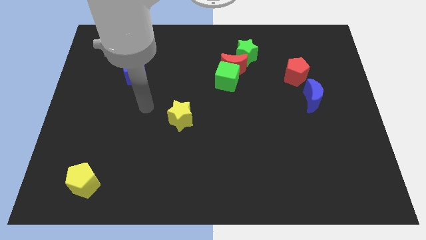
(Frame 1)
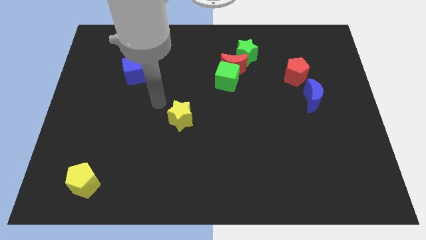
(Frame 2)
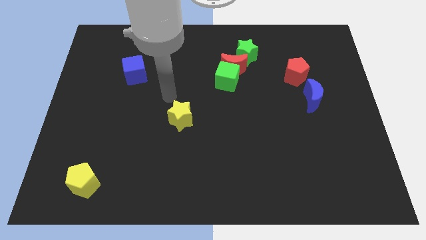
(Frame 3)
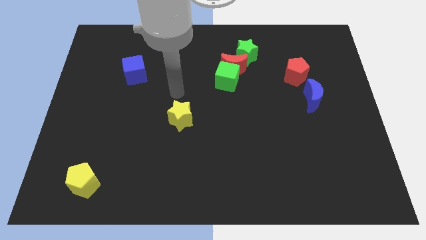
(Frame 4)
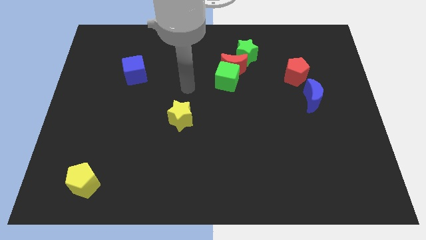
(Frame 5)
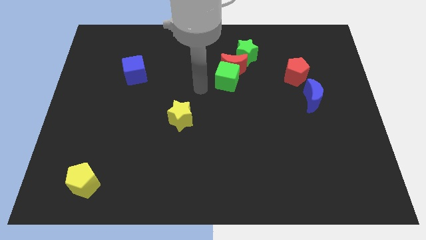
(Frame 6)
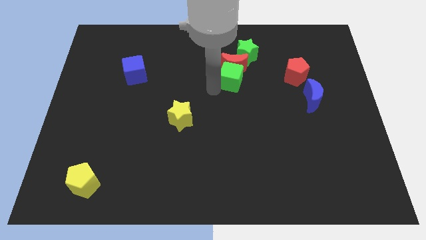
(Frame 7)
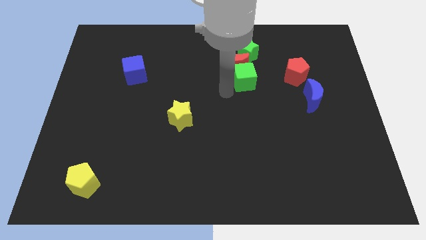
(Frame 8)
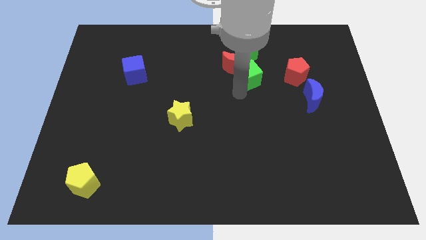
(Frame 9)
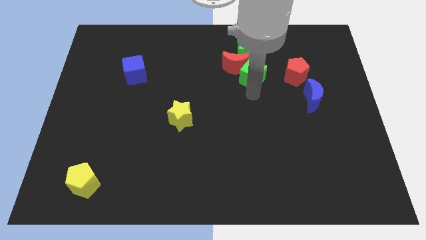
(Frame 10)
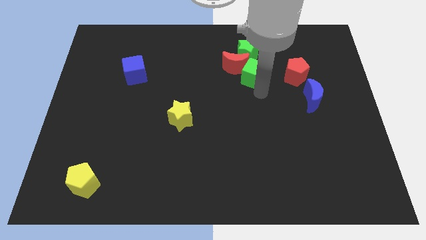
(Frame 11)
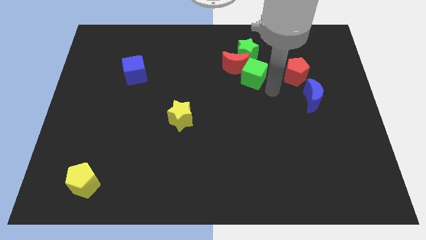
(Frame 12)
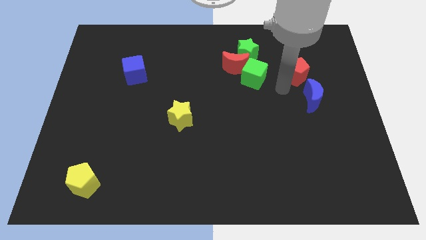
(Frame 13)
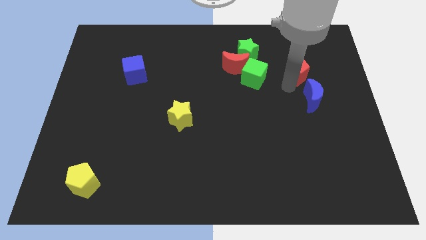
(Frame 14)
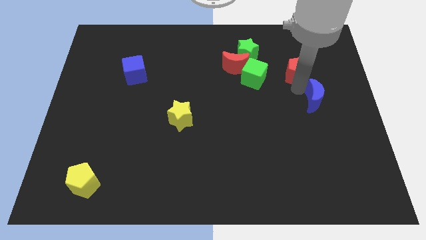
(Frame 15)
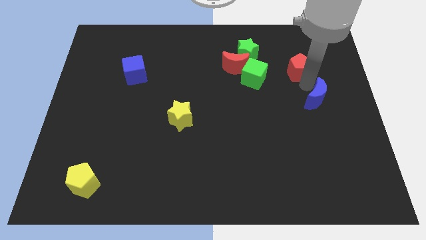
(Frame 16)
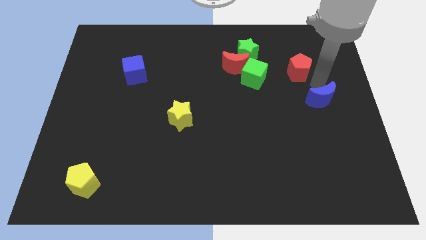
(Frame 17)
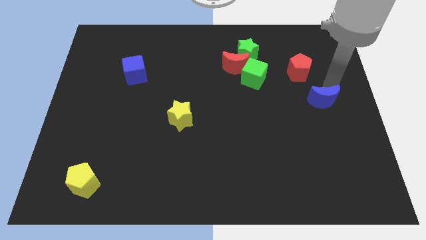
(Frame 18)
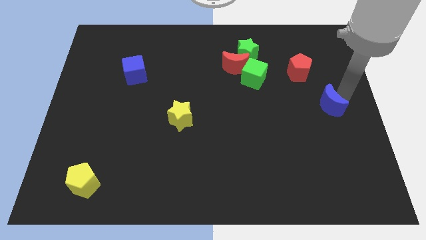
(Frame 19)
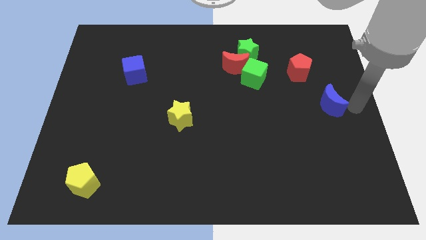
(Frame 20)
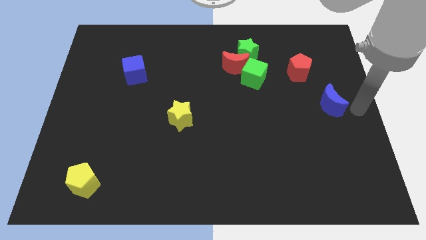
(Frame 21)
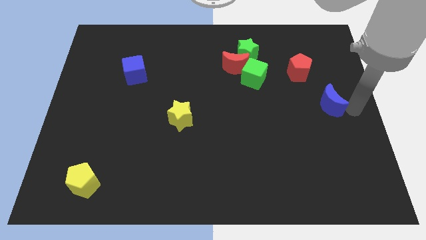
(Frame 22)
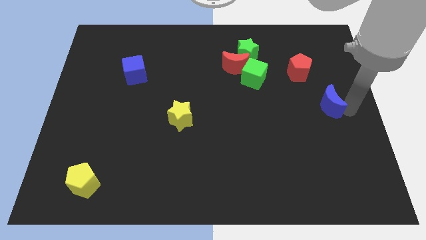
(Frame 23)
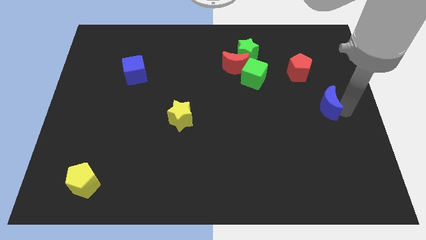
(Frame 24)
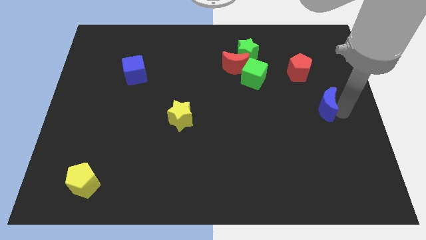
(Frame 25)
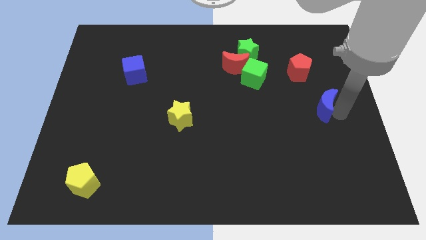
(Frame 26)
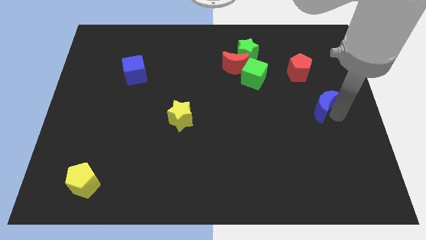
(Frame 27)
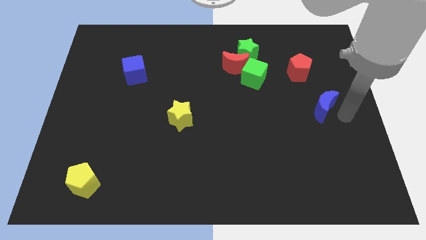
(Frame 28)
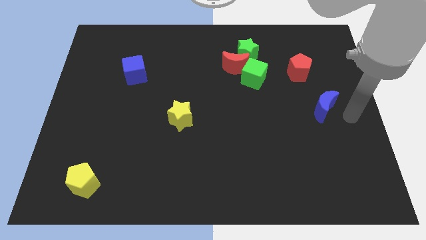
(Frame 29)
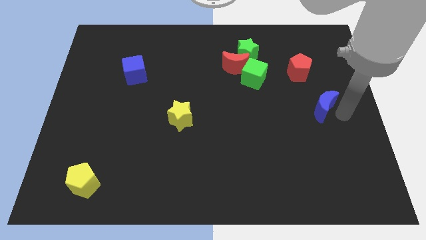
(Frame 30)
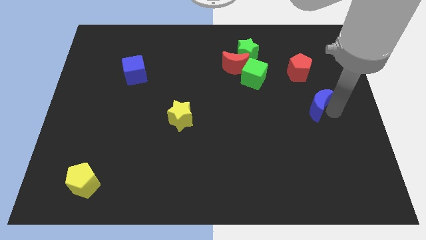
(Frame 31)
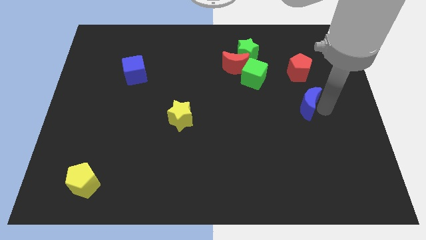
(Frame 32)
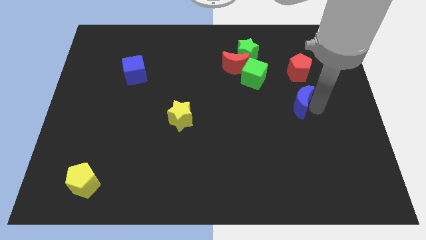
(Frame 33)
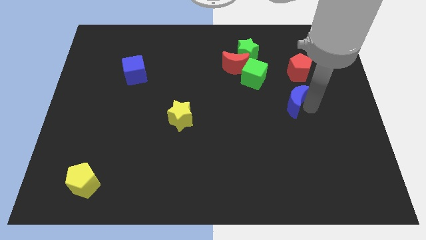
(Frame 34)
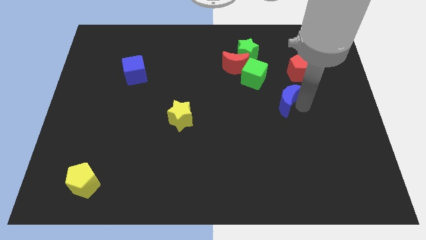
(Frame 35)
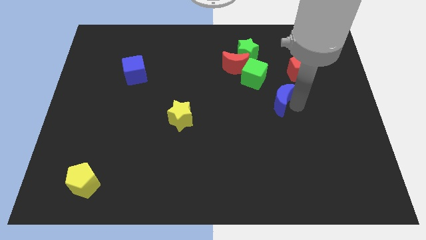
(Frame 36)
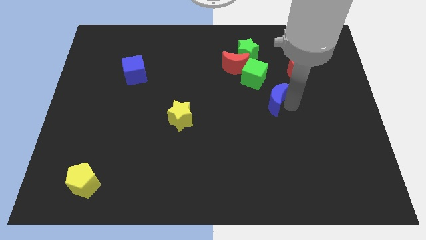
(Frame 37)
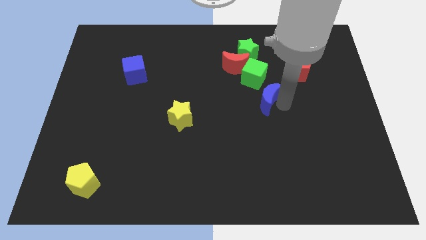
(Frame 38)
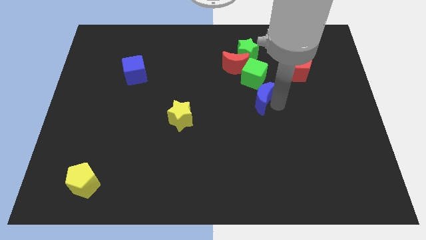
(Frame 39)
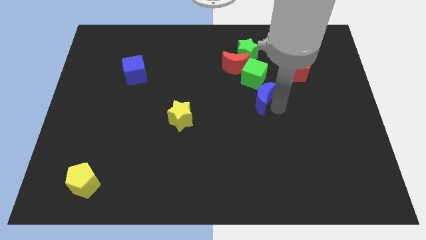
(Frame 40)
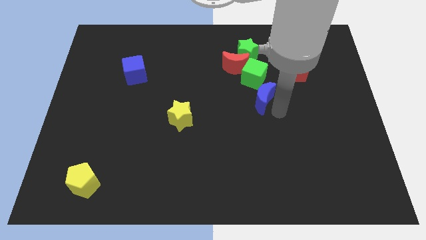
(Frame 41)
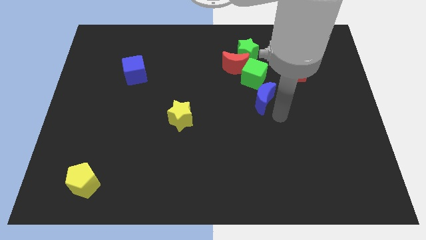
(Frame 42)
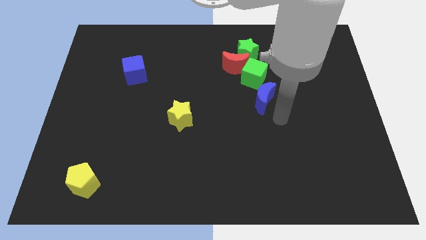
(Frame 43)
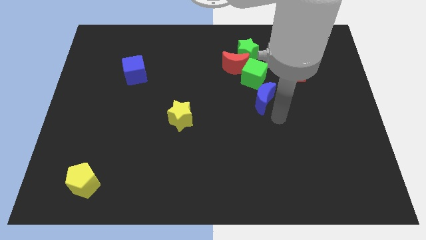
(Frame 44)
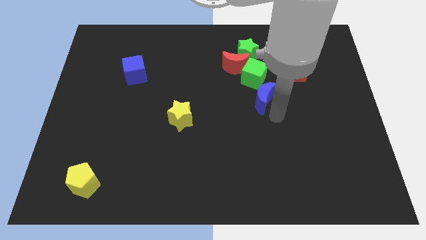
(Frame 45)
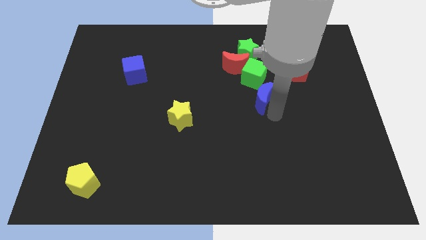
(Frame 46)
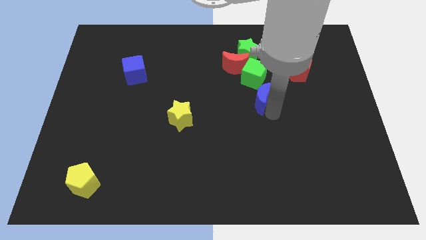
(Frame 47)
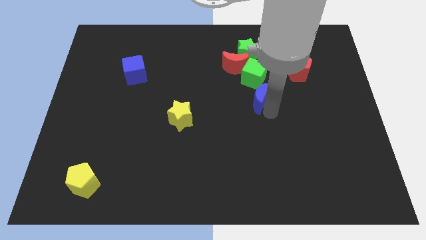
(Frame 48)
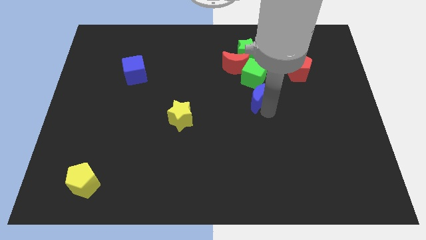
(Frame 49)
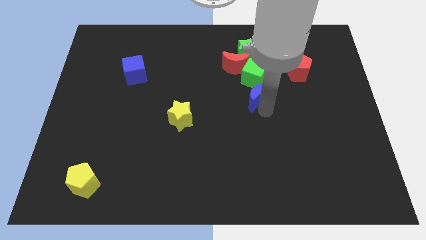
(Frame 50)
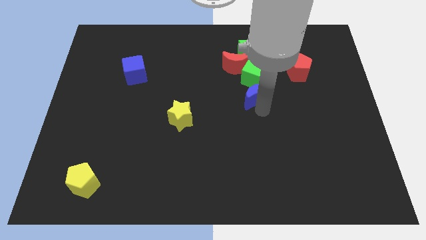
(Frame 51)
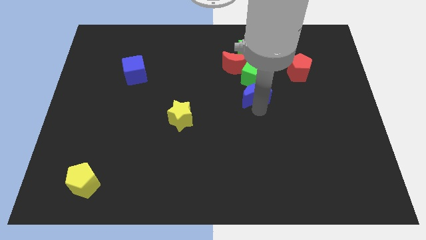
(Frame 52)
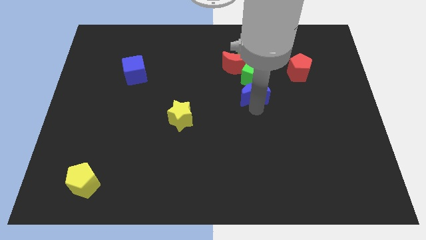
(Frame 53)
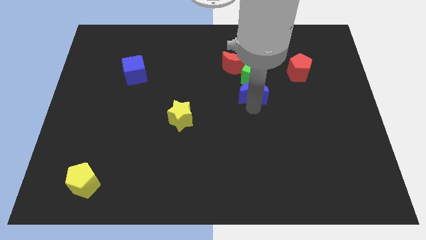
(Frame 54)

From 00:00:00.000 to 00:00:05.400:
slide the blue moon to the green cube

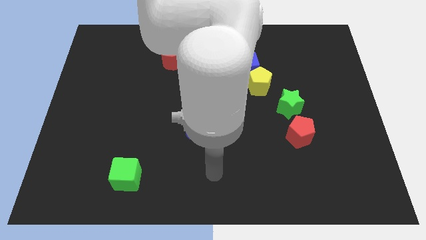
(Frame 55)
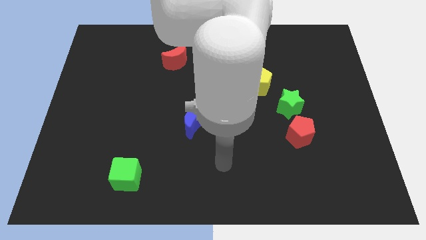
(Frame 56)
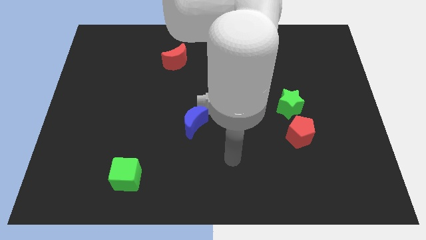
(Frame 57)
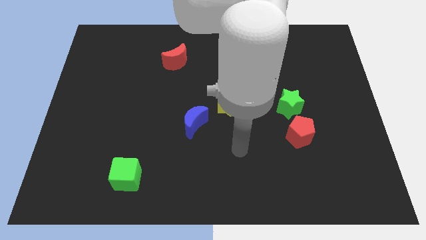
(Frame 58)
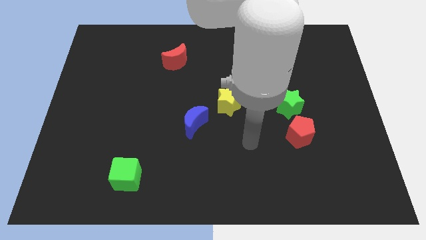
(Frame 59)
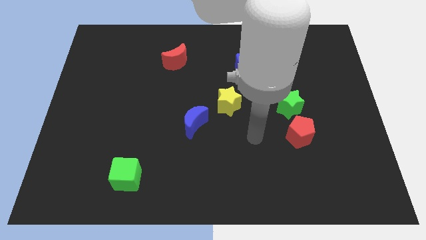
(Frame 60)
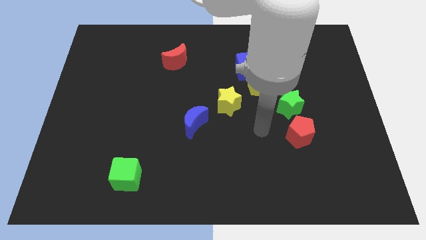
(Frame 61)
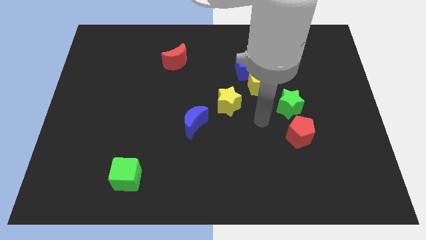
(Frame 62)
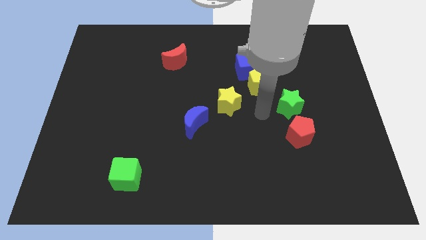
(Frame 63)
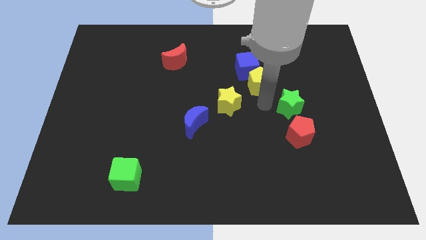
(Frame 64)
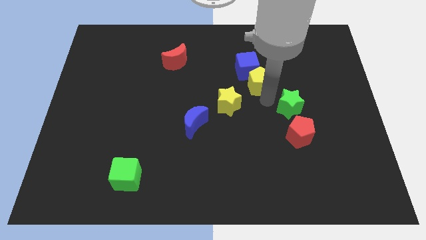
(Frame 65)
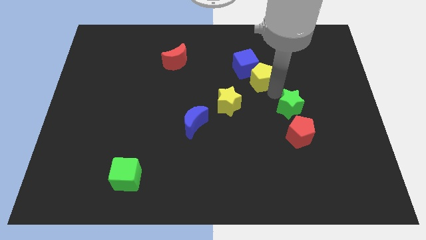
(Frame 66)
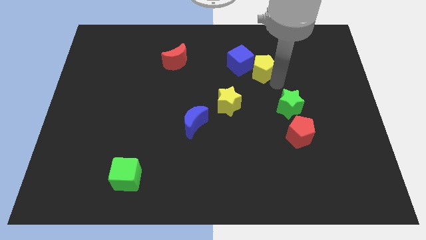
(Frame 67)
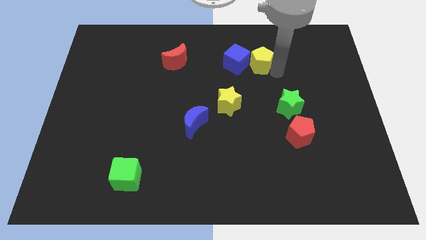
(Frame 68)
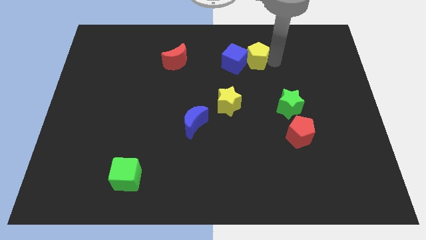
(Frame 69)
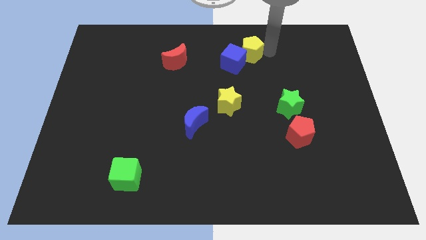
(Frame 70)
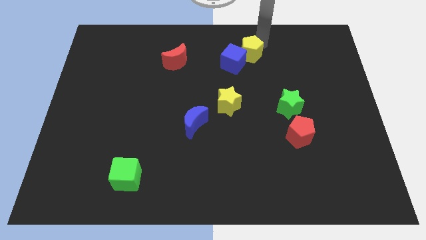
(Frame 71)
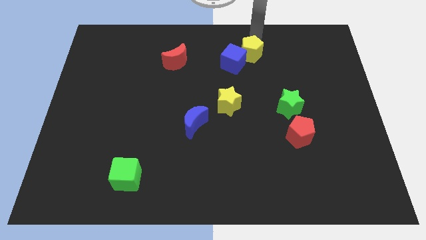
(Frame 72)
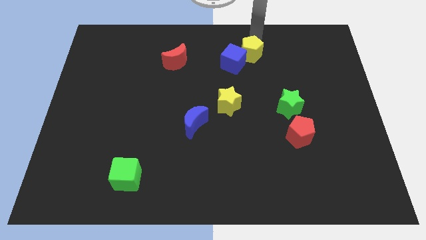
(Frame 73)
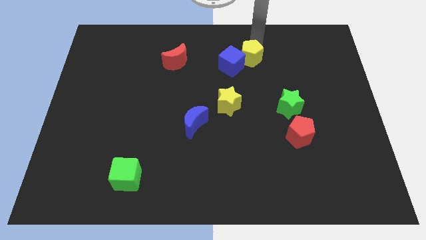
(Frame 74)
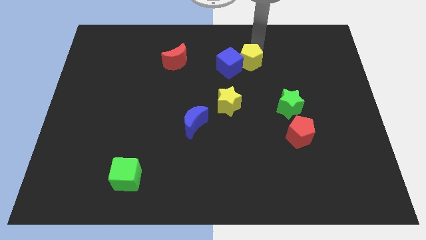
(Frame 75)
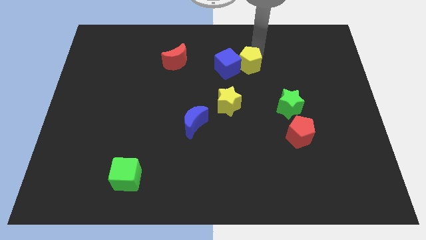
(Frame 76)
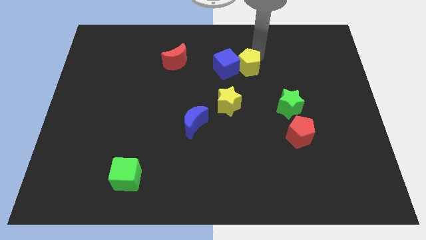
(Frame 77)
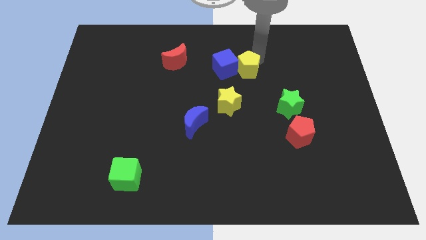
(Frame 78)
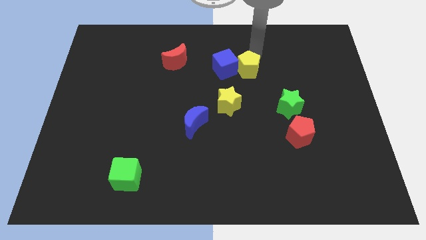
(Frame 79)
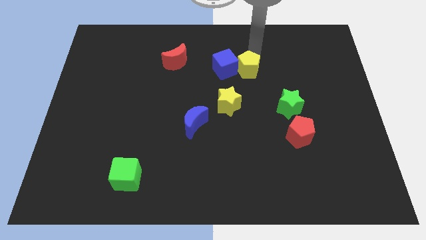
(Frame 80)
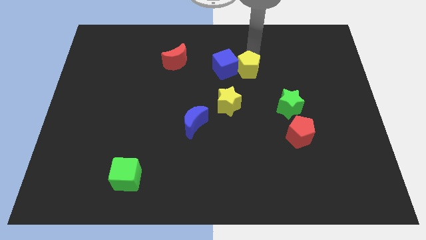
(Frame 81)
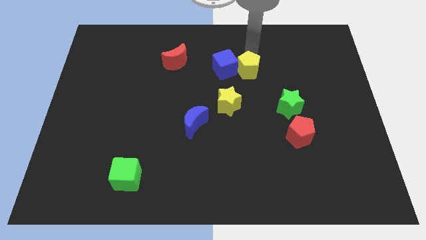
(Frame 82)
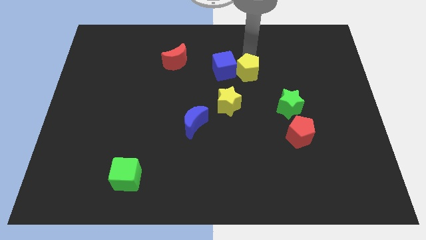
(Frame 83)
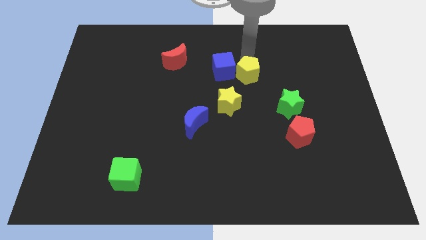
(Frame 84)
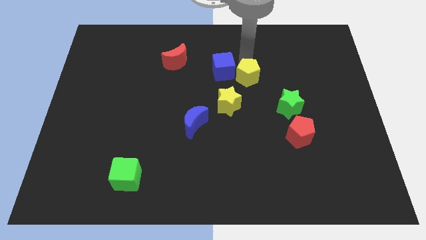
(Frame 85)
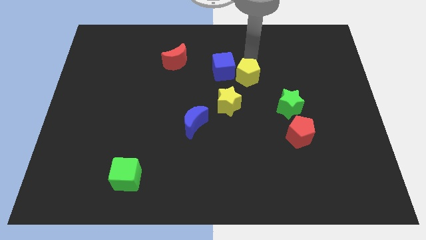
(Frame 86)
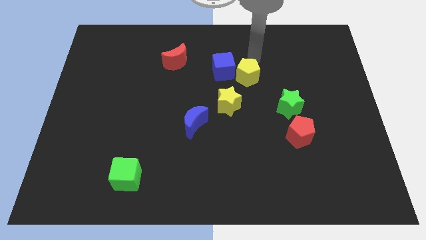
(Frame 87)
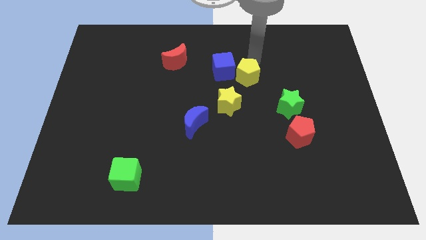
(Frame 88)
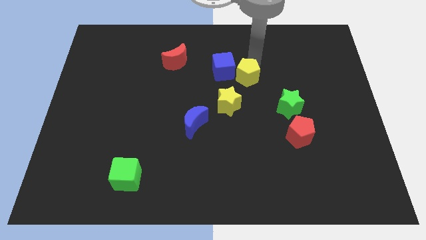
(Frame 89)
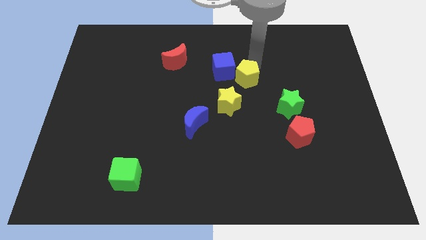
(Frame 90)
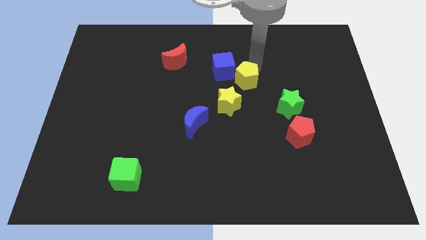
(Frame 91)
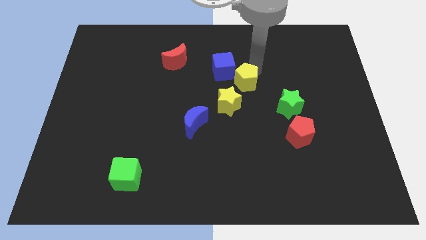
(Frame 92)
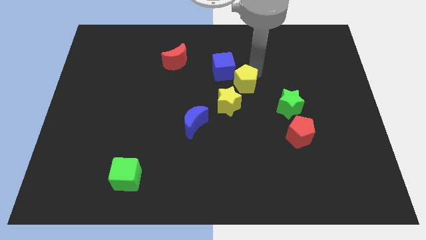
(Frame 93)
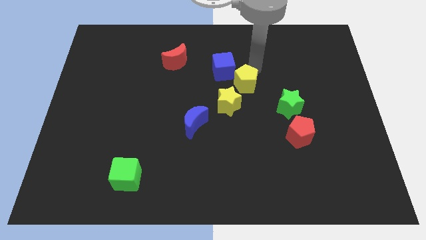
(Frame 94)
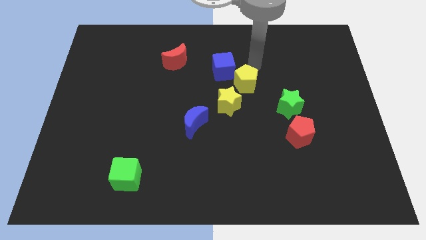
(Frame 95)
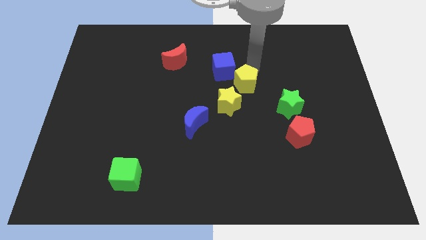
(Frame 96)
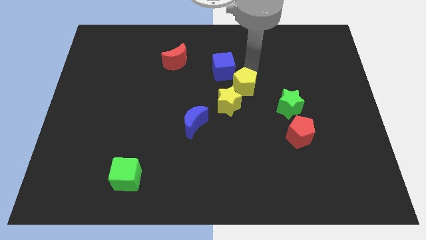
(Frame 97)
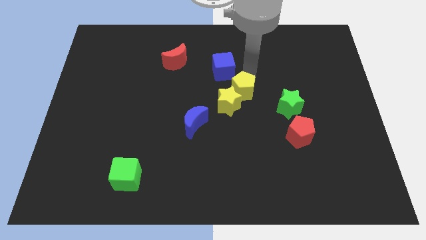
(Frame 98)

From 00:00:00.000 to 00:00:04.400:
put the yellow pentagon to the yellow star
